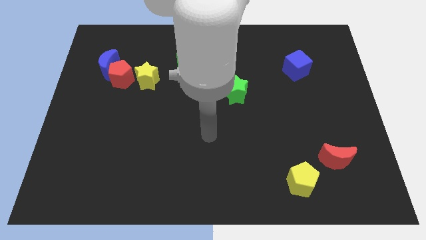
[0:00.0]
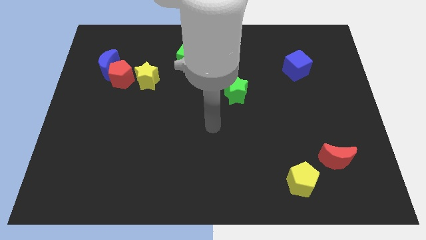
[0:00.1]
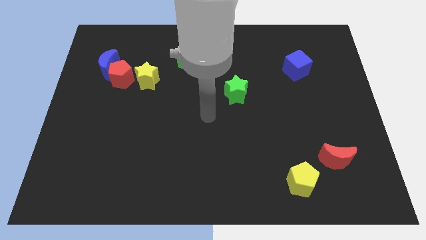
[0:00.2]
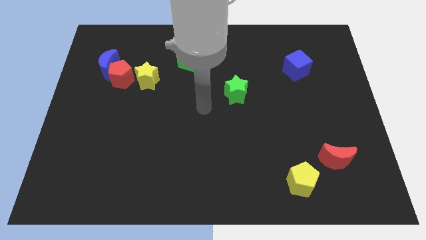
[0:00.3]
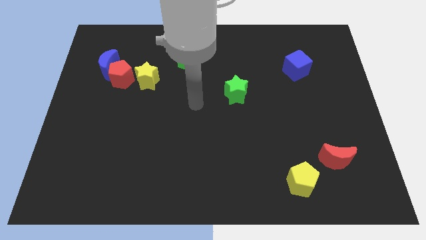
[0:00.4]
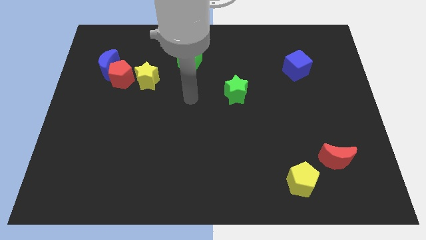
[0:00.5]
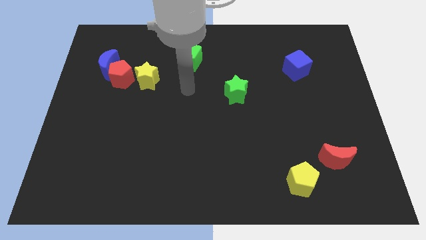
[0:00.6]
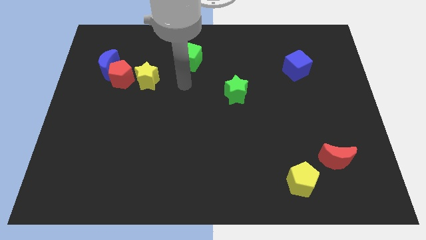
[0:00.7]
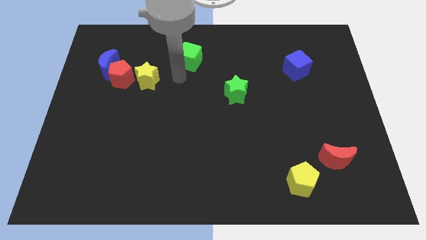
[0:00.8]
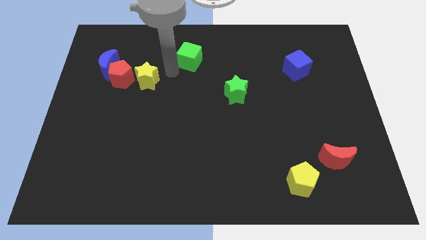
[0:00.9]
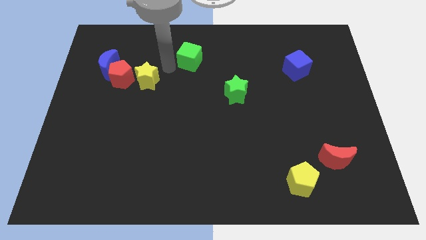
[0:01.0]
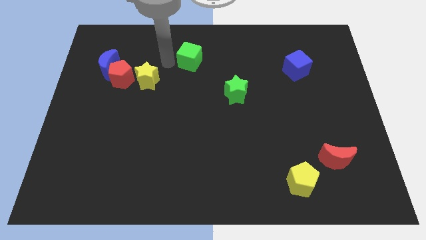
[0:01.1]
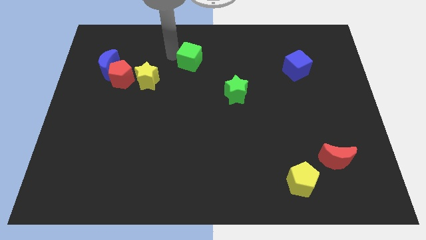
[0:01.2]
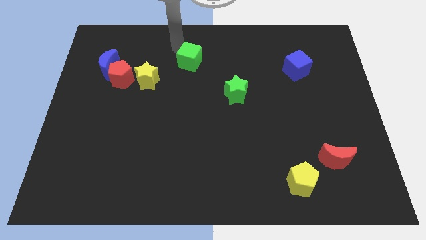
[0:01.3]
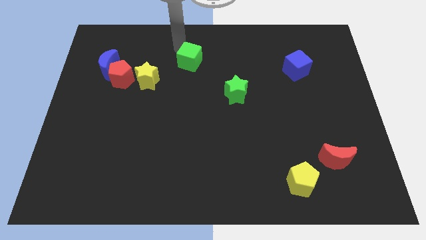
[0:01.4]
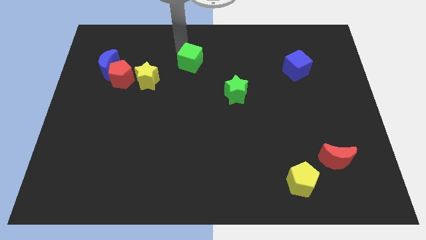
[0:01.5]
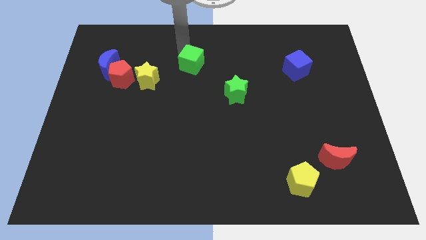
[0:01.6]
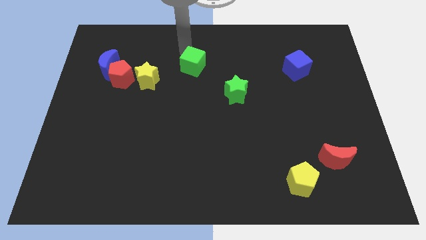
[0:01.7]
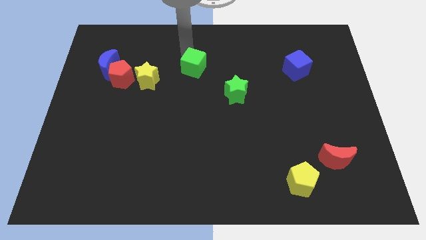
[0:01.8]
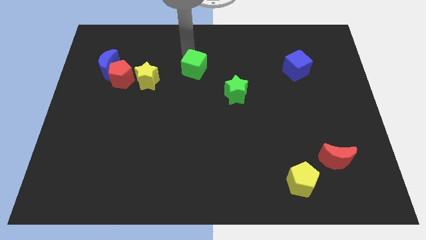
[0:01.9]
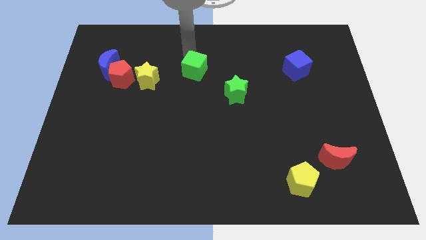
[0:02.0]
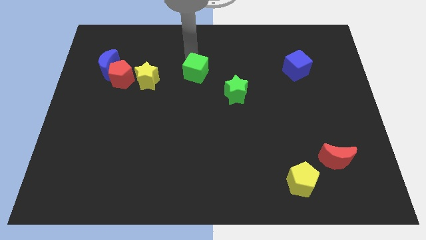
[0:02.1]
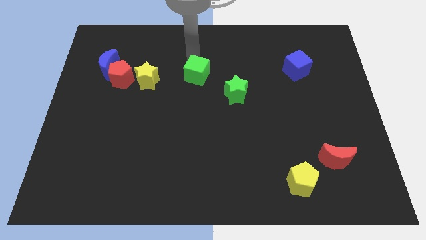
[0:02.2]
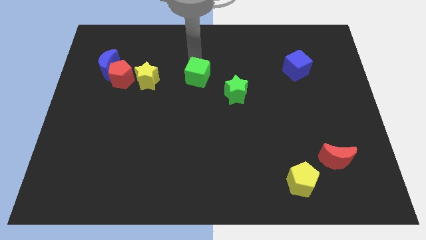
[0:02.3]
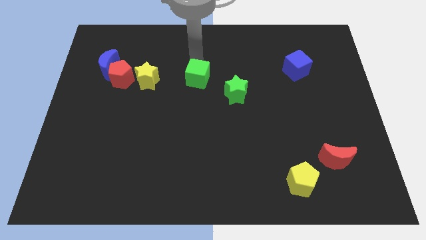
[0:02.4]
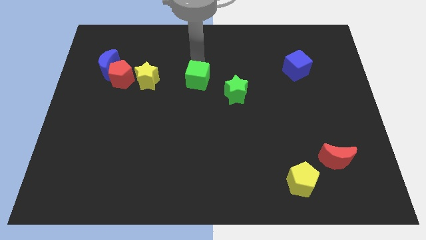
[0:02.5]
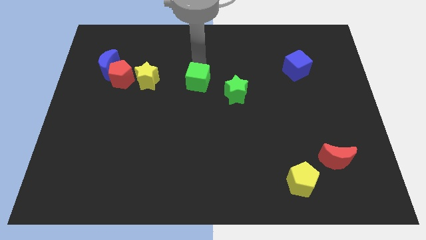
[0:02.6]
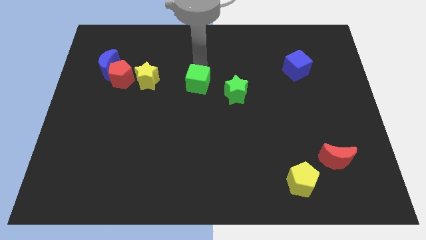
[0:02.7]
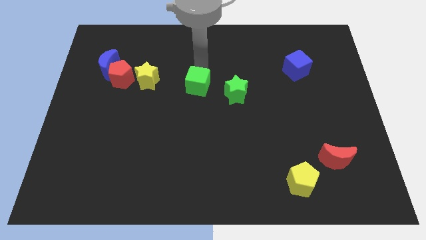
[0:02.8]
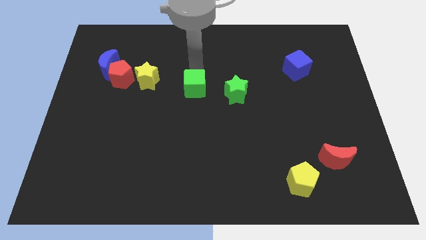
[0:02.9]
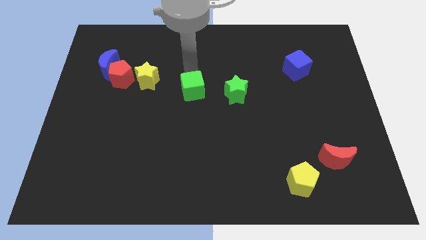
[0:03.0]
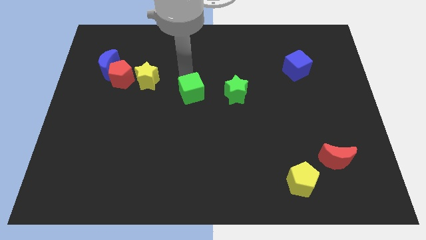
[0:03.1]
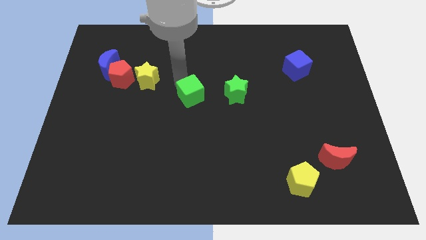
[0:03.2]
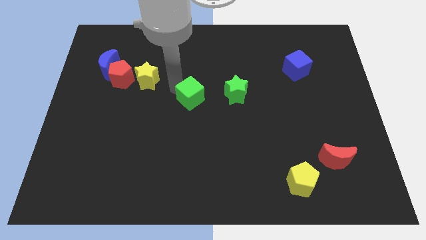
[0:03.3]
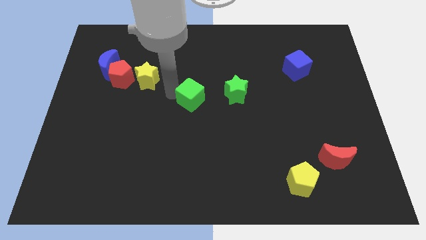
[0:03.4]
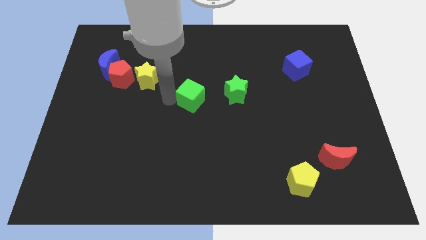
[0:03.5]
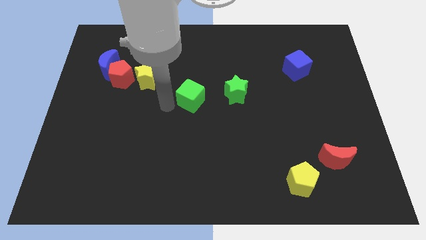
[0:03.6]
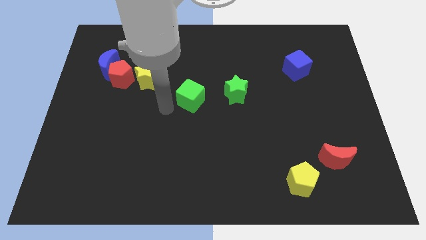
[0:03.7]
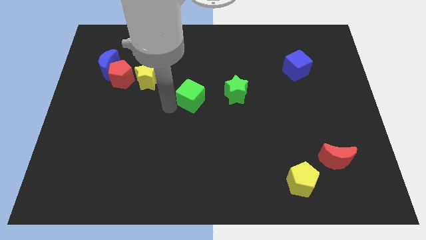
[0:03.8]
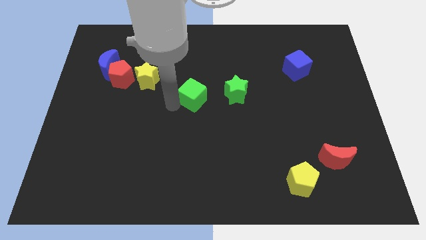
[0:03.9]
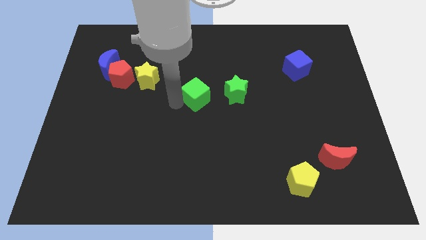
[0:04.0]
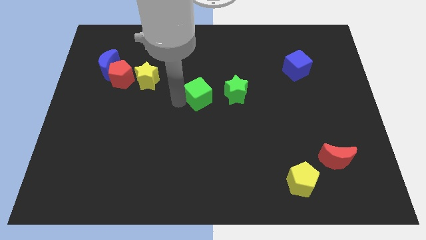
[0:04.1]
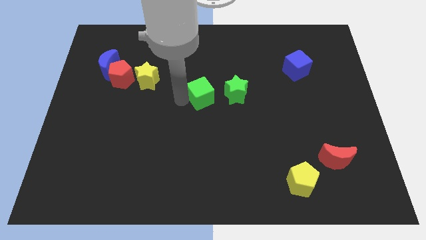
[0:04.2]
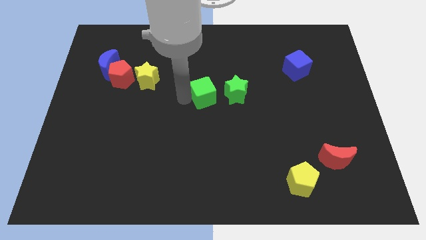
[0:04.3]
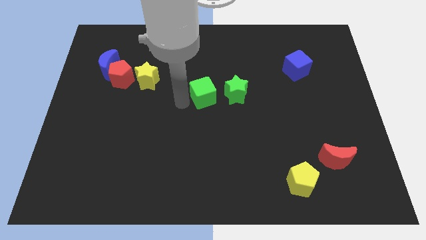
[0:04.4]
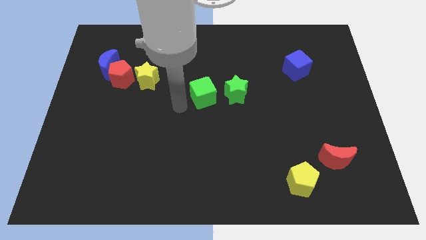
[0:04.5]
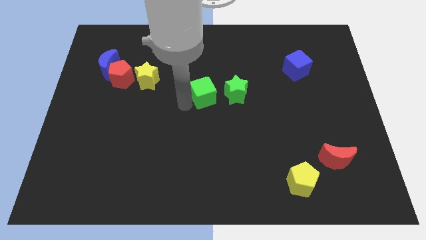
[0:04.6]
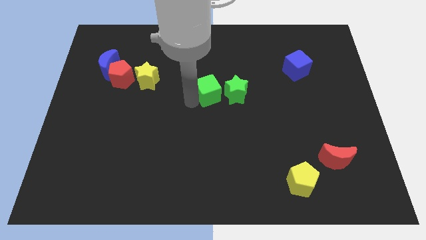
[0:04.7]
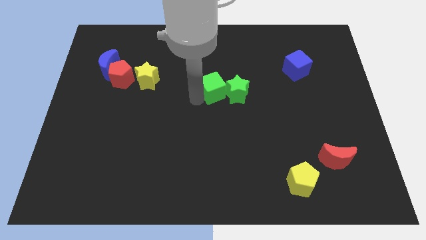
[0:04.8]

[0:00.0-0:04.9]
move the green cube close to the green star

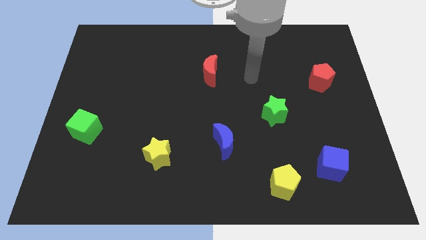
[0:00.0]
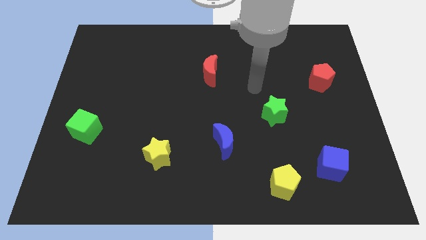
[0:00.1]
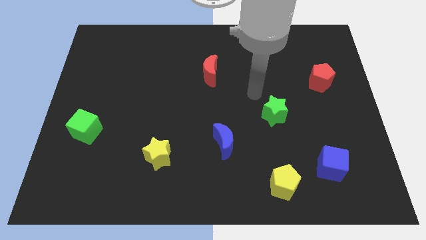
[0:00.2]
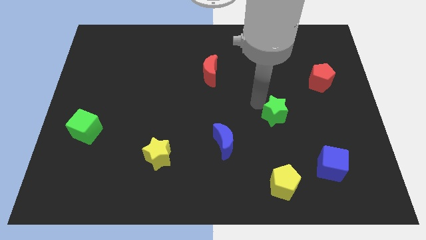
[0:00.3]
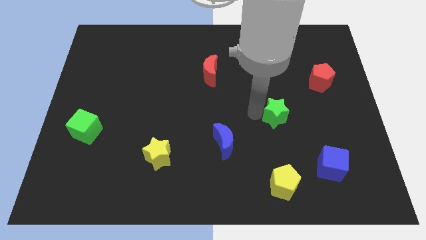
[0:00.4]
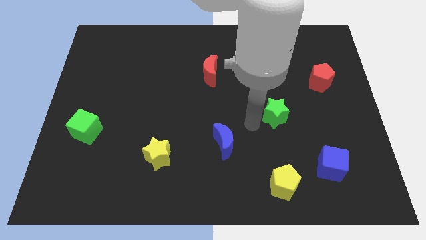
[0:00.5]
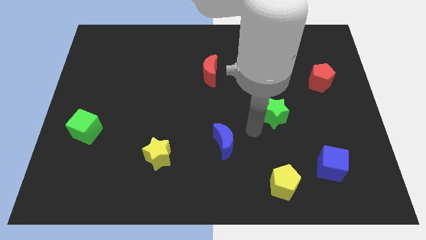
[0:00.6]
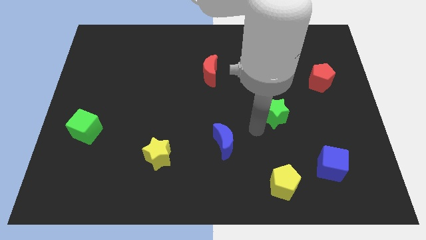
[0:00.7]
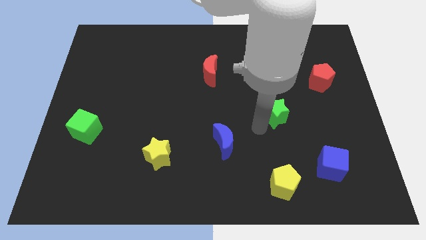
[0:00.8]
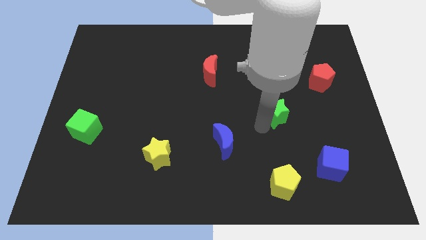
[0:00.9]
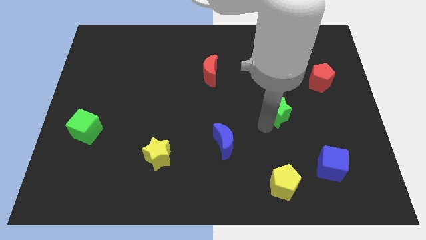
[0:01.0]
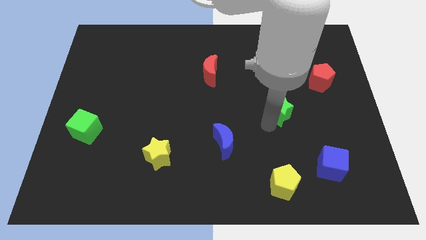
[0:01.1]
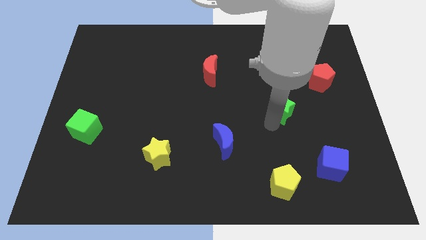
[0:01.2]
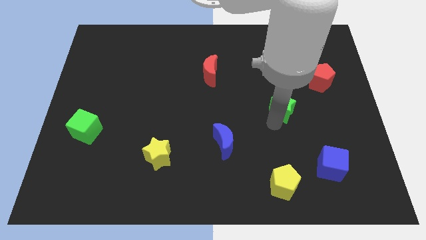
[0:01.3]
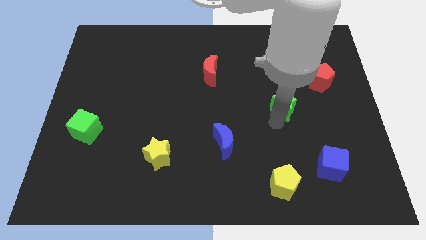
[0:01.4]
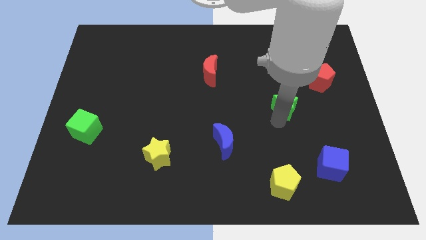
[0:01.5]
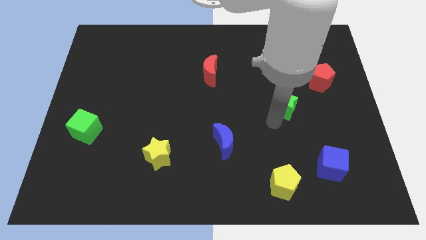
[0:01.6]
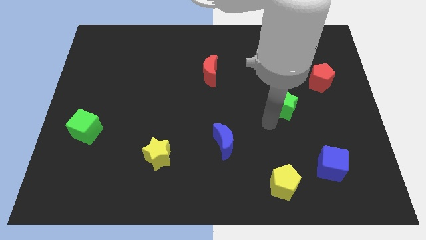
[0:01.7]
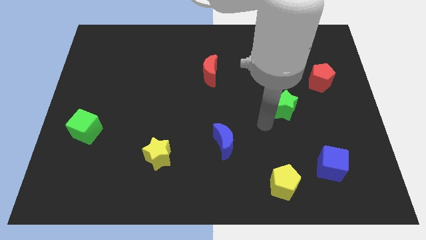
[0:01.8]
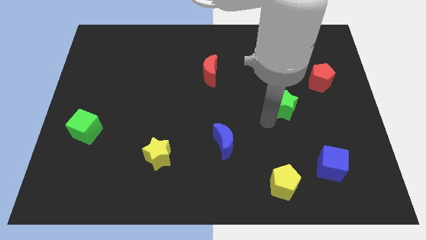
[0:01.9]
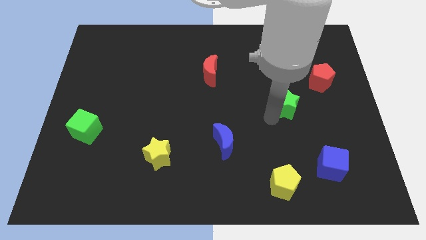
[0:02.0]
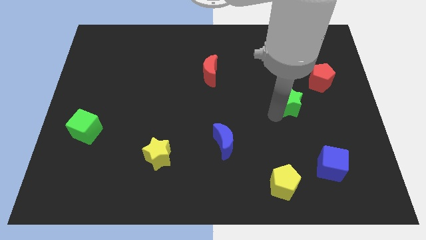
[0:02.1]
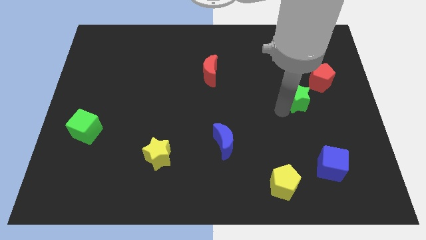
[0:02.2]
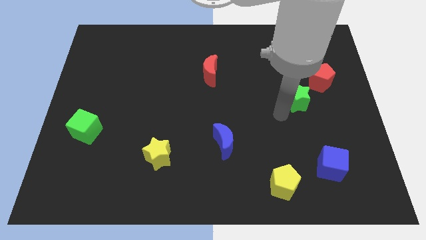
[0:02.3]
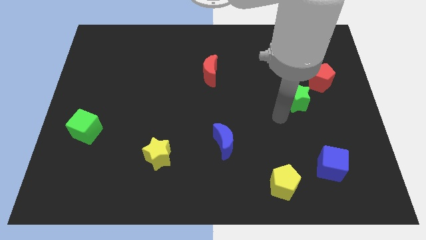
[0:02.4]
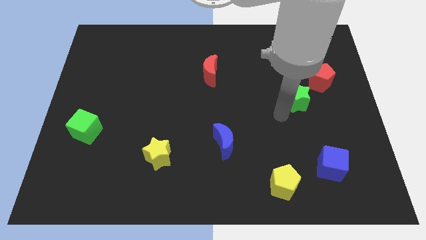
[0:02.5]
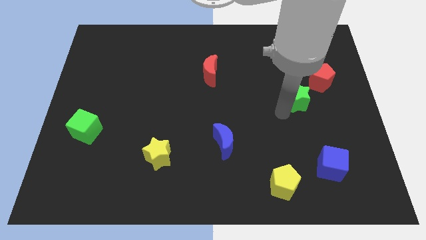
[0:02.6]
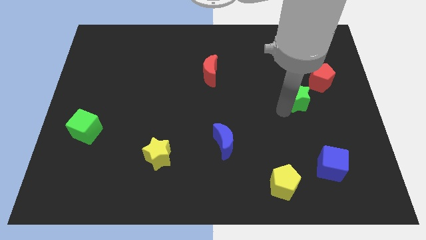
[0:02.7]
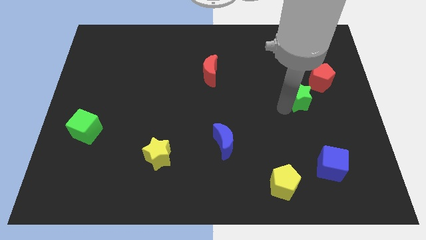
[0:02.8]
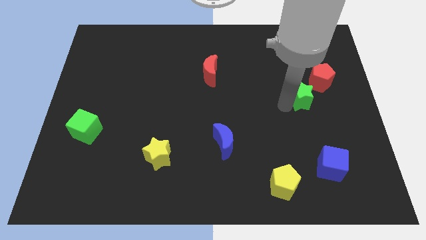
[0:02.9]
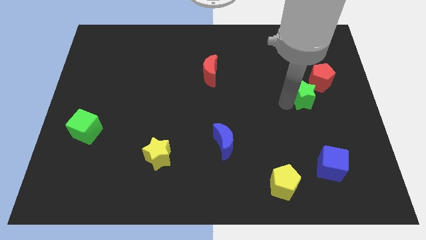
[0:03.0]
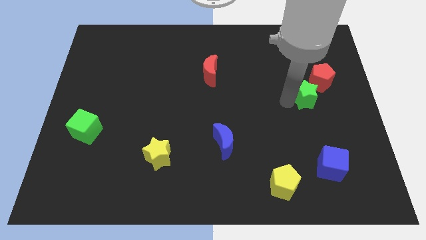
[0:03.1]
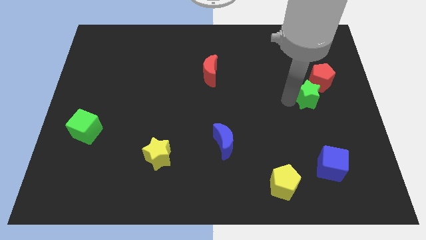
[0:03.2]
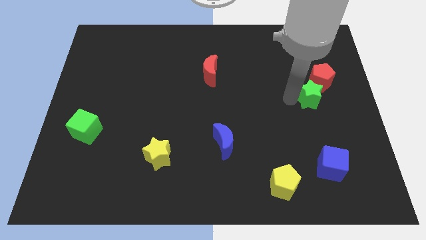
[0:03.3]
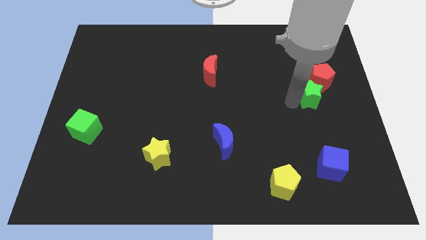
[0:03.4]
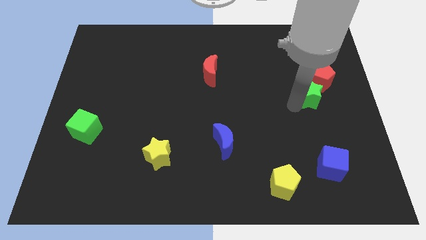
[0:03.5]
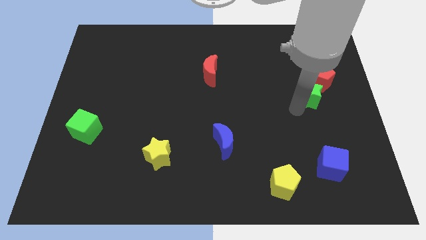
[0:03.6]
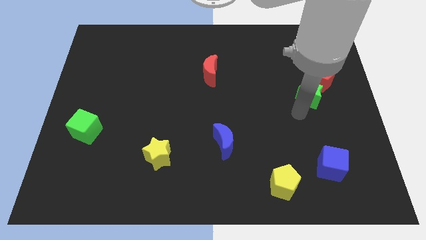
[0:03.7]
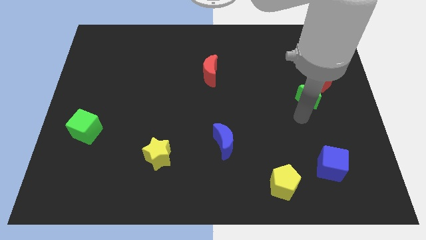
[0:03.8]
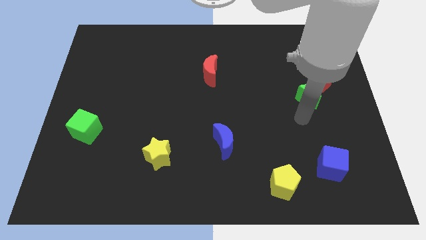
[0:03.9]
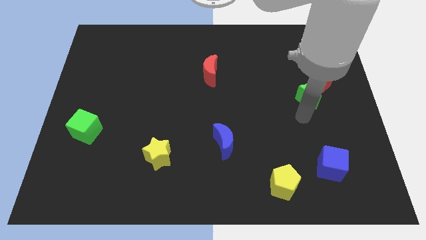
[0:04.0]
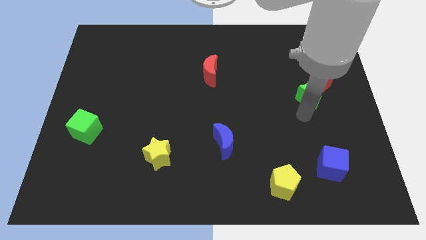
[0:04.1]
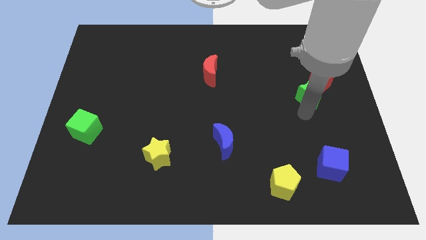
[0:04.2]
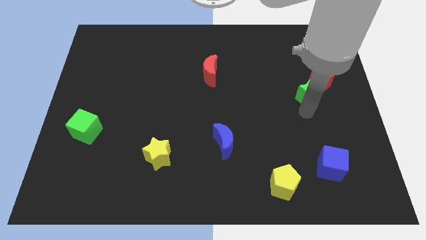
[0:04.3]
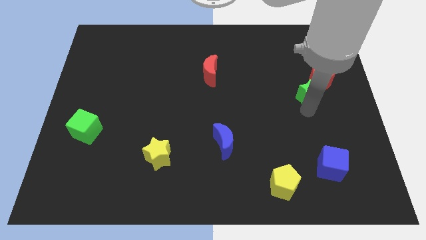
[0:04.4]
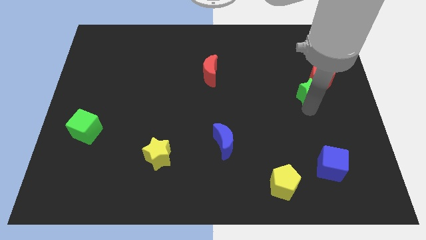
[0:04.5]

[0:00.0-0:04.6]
put the green star to the red pentagon
